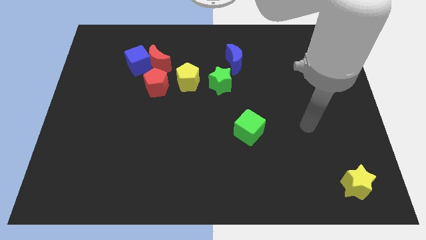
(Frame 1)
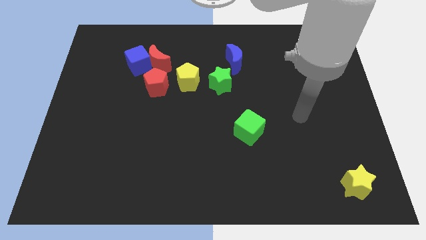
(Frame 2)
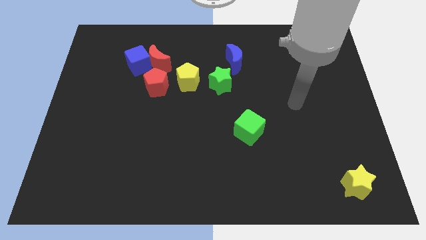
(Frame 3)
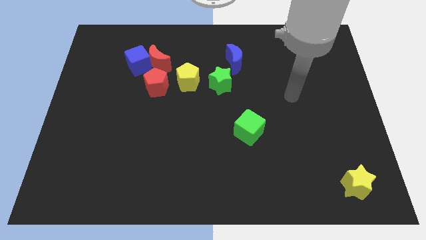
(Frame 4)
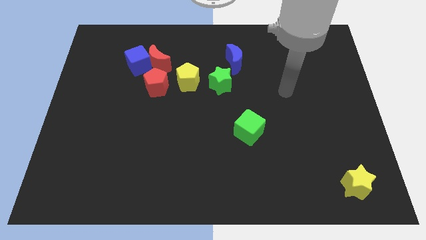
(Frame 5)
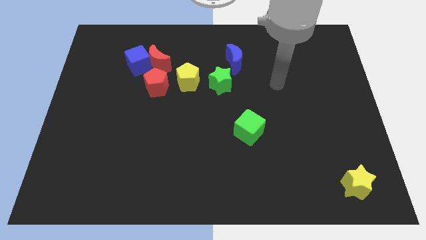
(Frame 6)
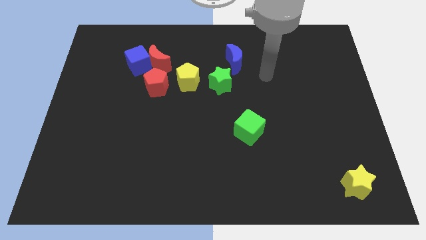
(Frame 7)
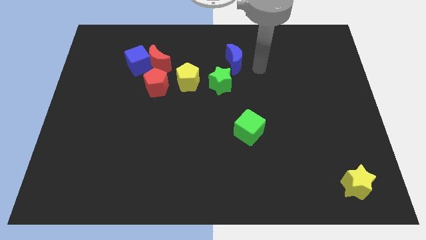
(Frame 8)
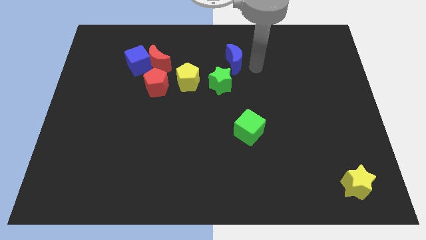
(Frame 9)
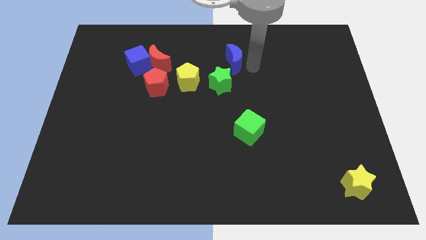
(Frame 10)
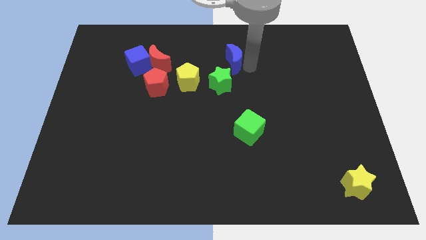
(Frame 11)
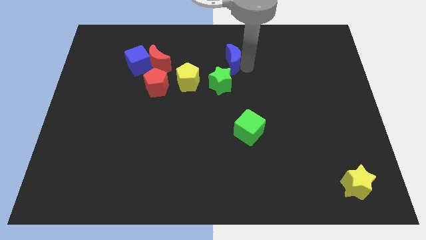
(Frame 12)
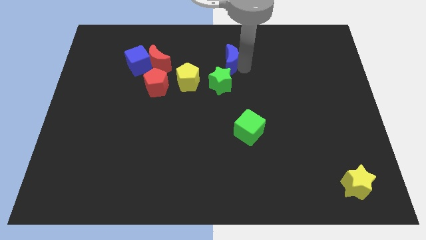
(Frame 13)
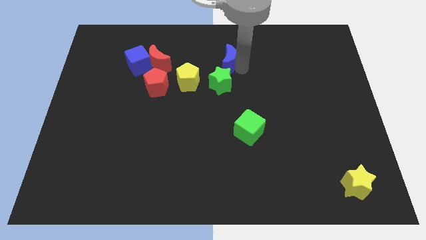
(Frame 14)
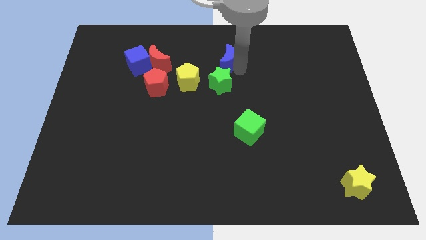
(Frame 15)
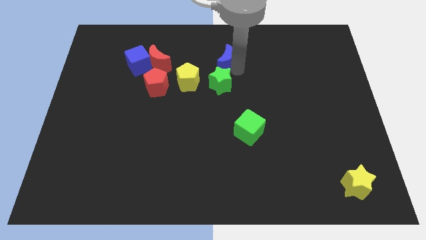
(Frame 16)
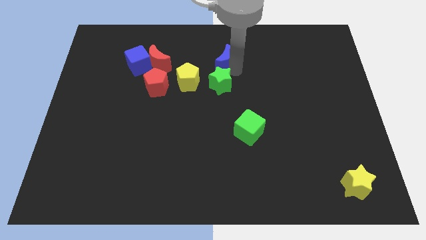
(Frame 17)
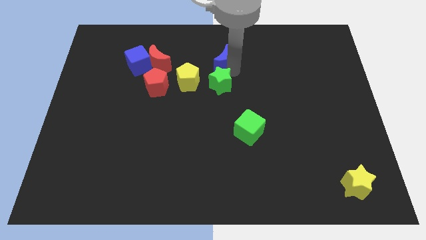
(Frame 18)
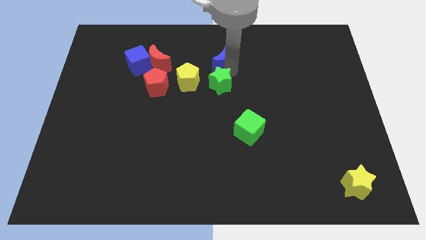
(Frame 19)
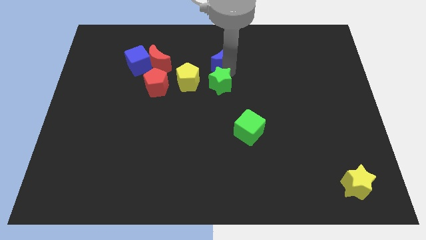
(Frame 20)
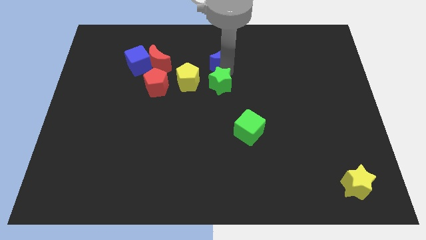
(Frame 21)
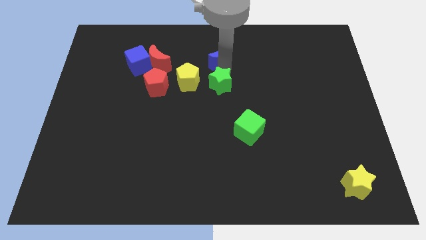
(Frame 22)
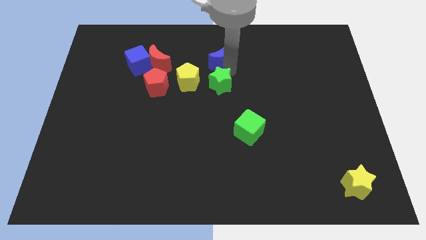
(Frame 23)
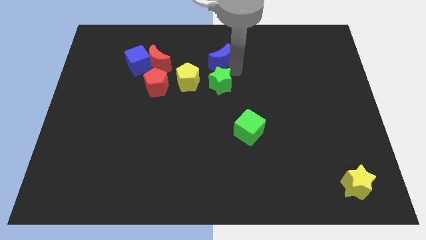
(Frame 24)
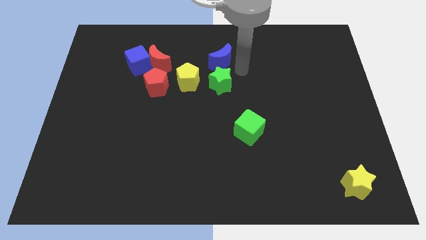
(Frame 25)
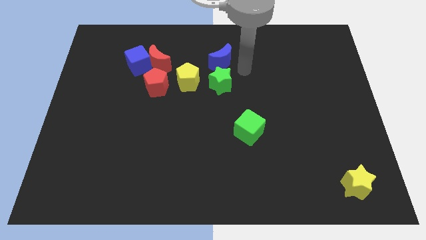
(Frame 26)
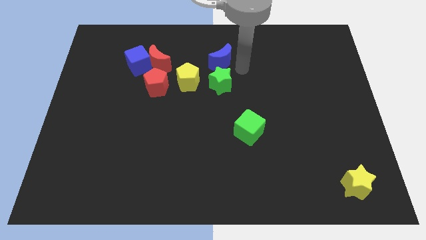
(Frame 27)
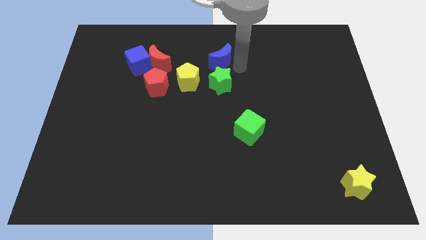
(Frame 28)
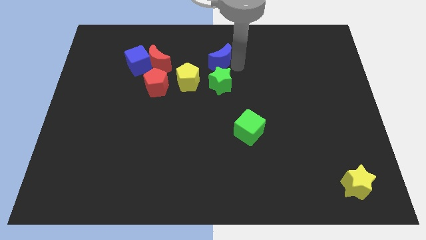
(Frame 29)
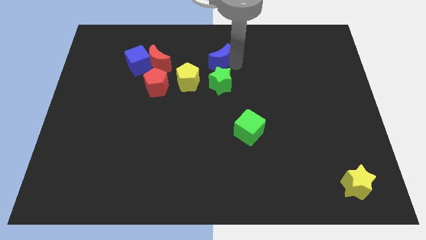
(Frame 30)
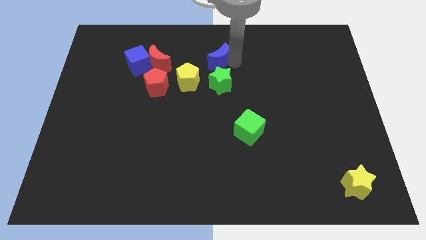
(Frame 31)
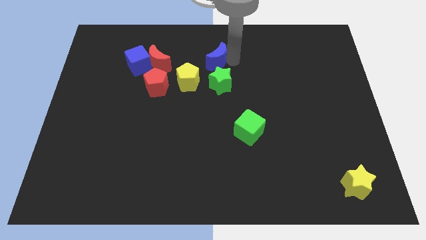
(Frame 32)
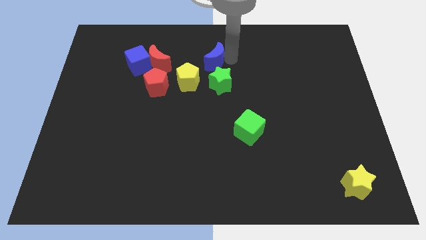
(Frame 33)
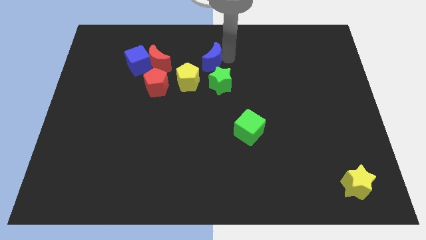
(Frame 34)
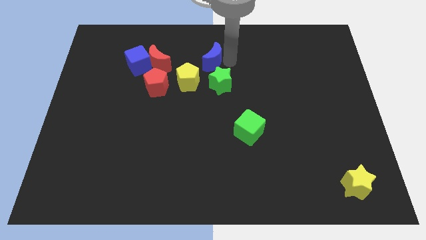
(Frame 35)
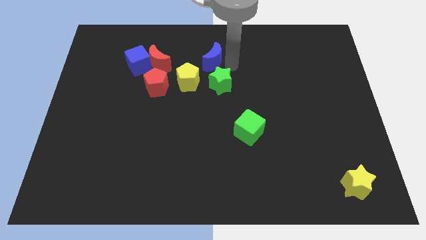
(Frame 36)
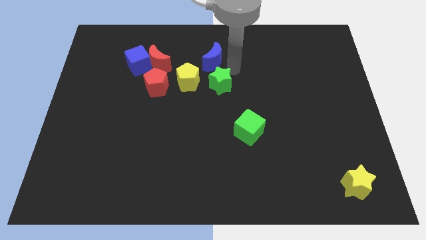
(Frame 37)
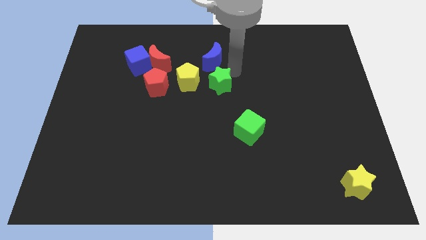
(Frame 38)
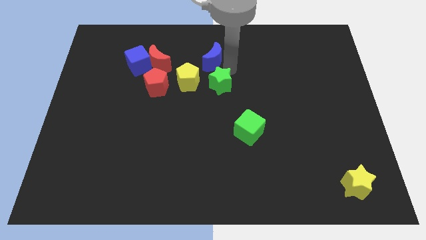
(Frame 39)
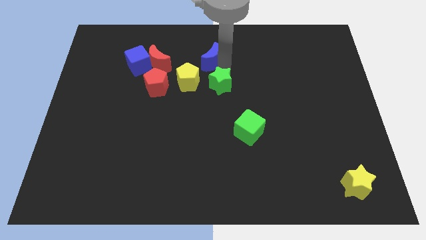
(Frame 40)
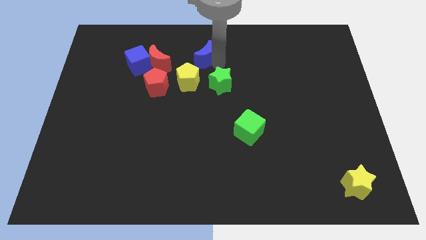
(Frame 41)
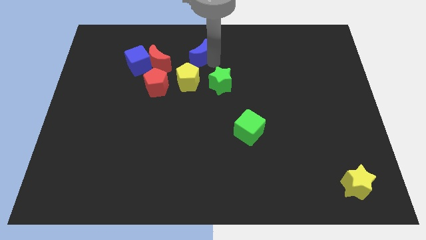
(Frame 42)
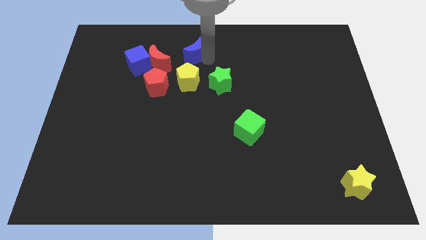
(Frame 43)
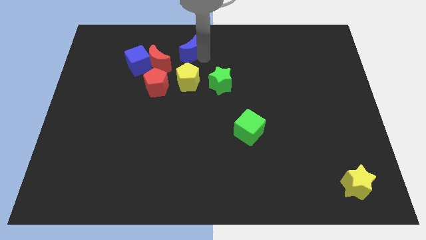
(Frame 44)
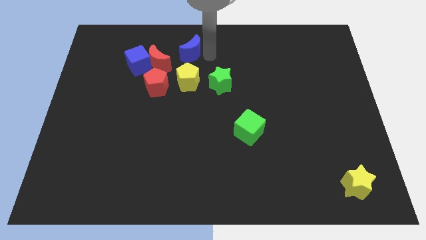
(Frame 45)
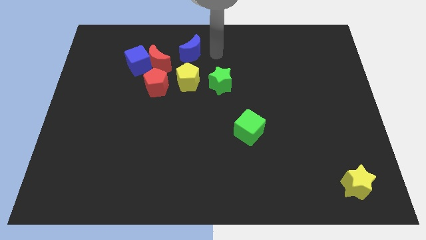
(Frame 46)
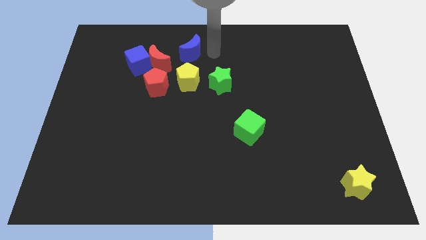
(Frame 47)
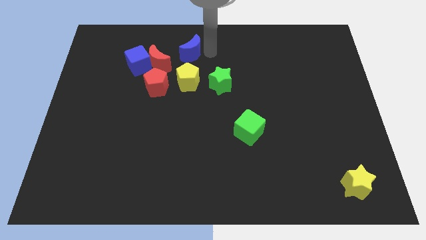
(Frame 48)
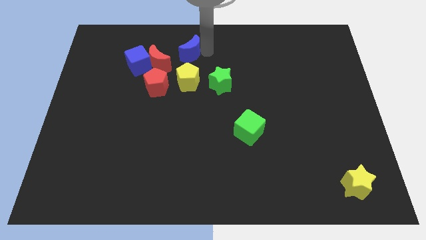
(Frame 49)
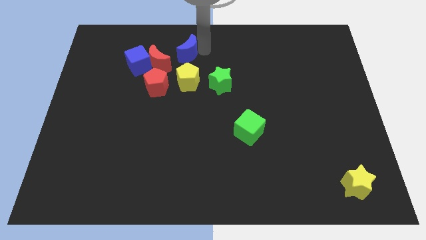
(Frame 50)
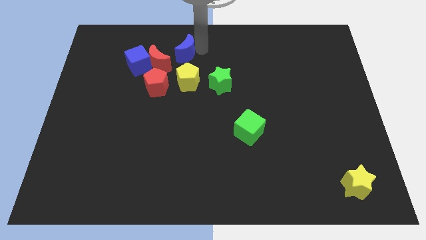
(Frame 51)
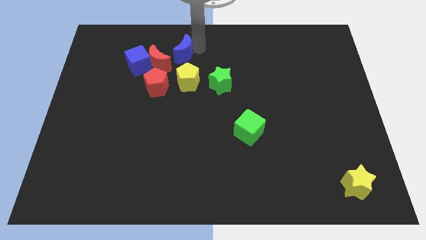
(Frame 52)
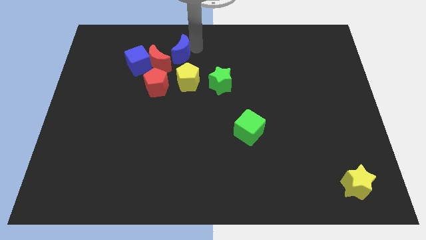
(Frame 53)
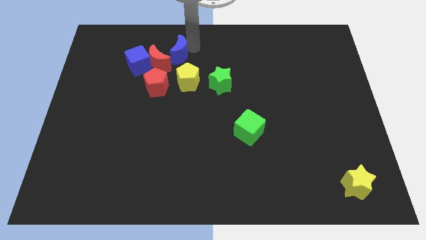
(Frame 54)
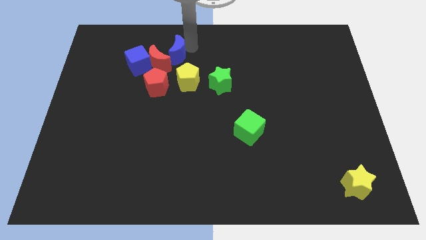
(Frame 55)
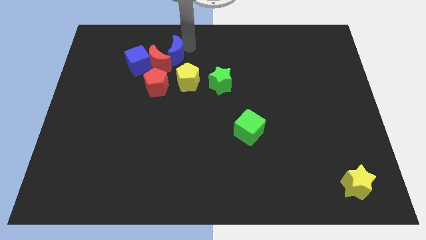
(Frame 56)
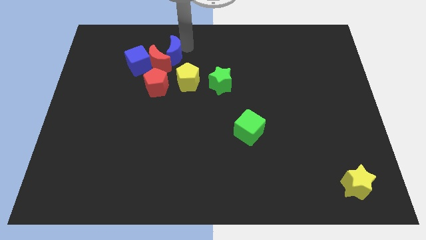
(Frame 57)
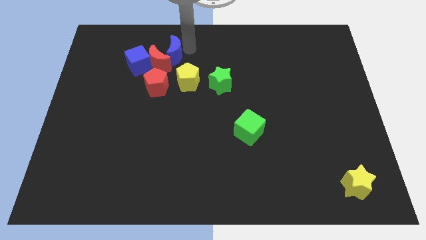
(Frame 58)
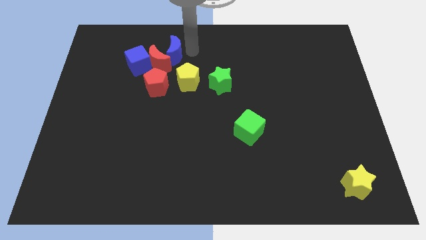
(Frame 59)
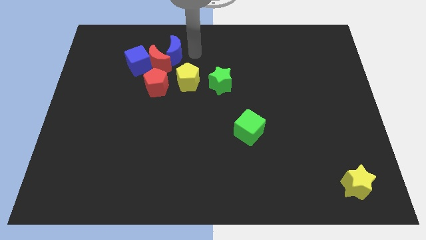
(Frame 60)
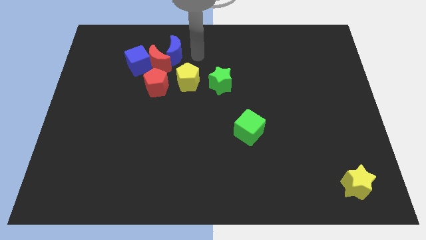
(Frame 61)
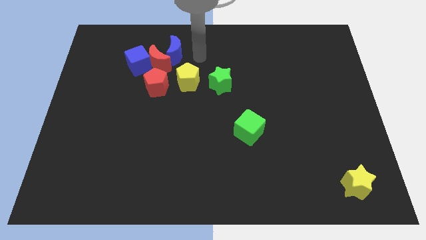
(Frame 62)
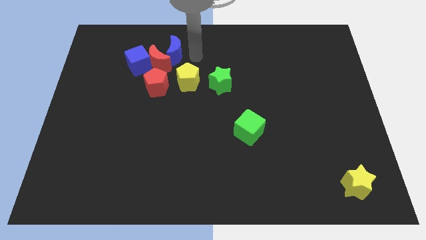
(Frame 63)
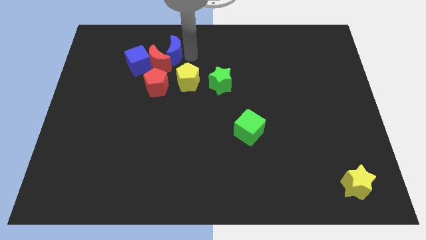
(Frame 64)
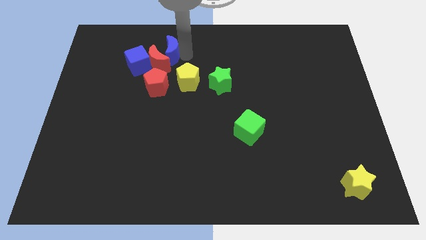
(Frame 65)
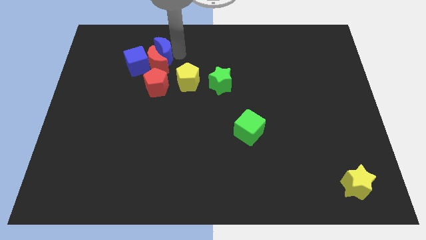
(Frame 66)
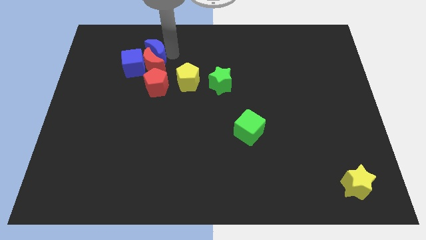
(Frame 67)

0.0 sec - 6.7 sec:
slide the blue moon to the left

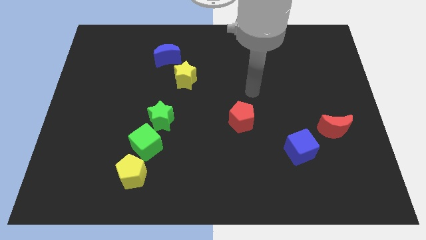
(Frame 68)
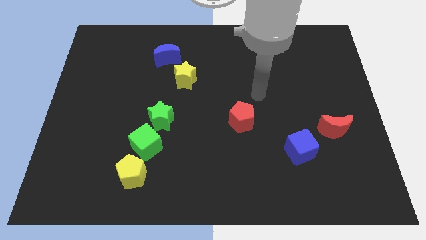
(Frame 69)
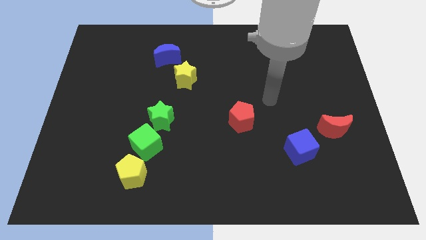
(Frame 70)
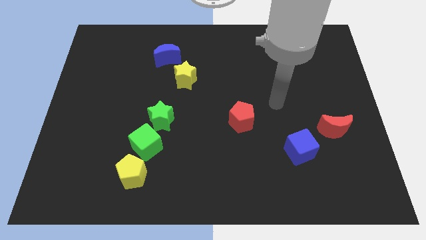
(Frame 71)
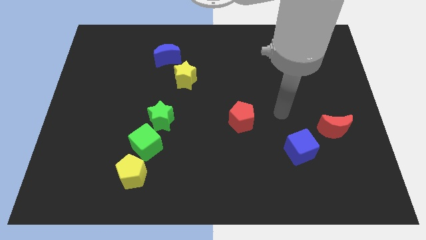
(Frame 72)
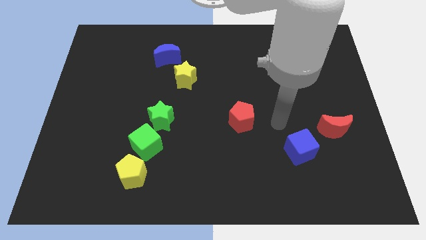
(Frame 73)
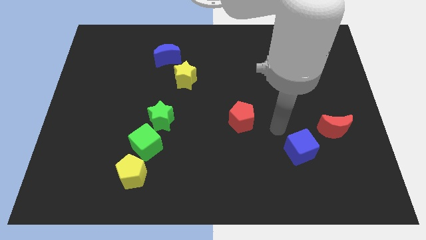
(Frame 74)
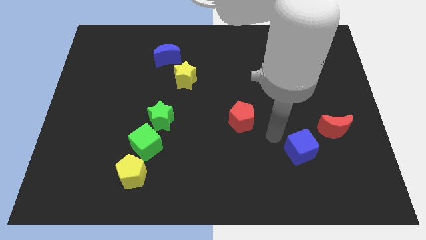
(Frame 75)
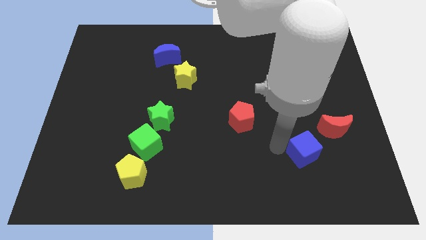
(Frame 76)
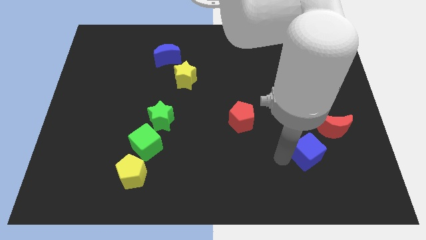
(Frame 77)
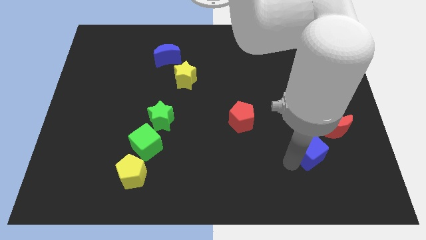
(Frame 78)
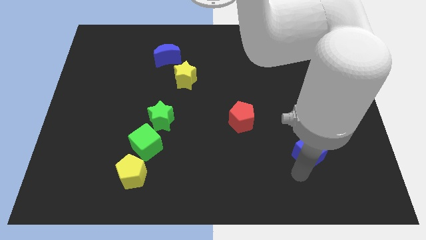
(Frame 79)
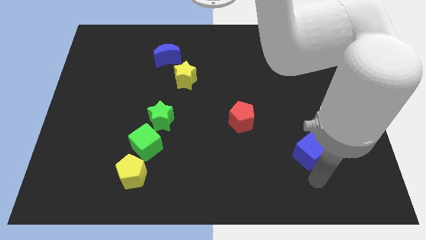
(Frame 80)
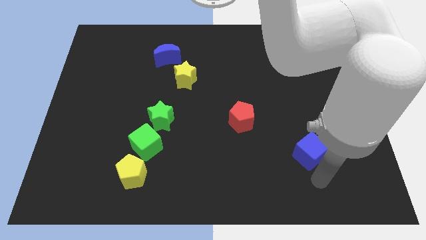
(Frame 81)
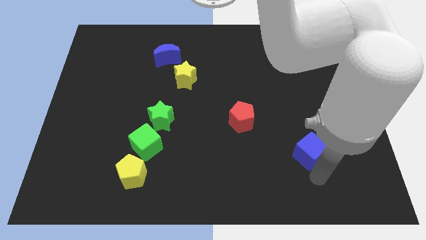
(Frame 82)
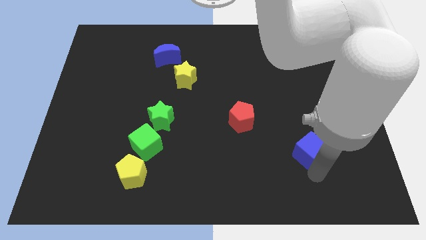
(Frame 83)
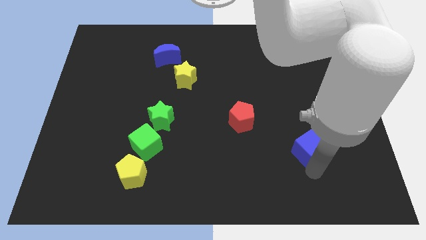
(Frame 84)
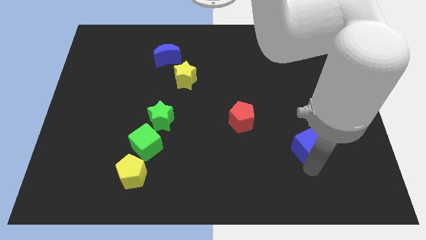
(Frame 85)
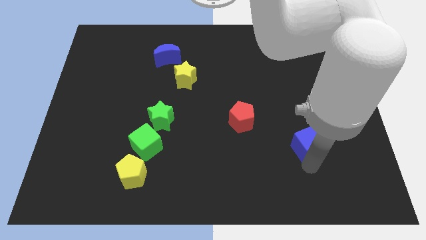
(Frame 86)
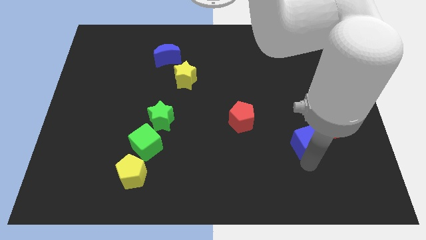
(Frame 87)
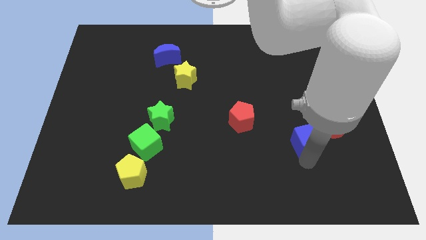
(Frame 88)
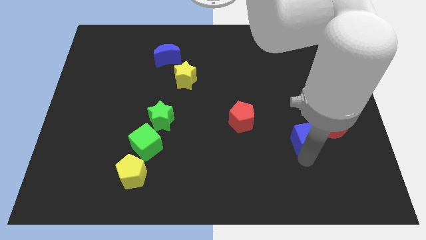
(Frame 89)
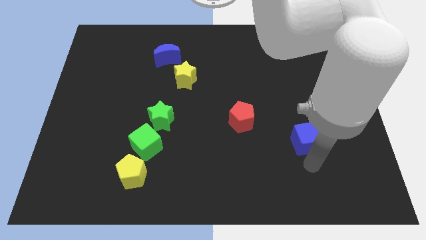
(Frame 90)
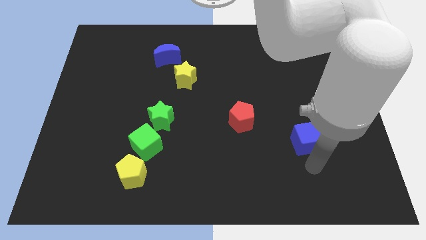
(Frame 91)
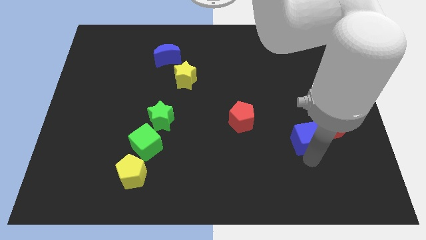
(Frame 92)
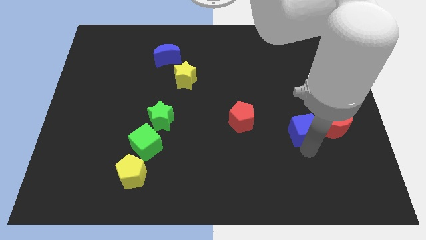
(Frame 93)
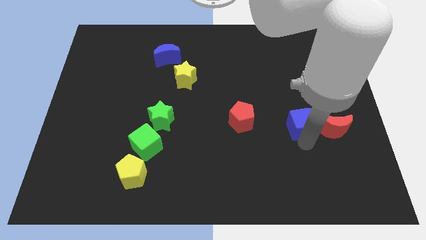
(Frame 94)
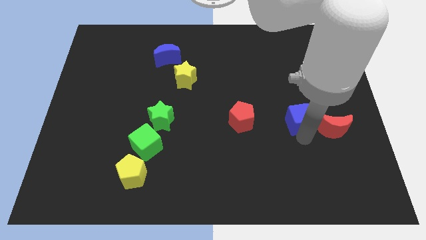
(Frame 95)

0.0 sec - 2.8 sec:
slide the blue cube upwards slightly
